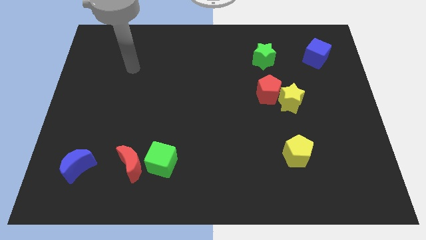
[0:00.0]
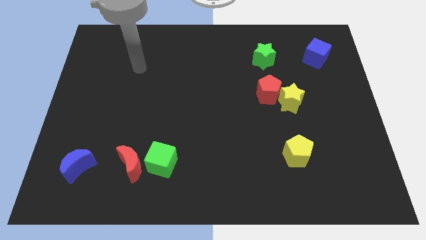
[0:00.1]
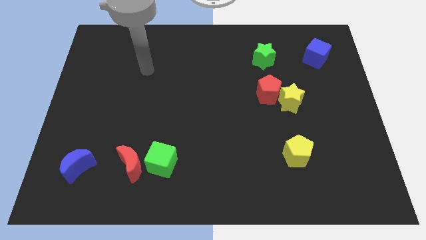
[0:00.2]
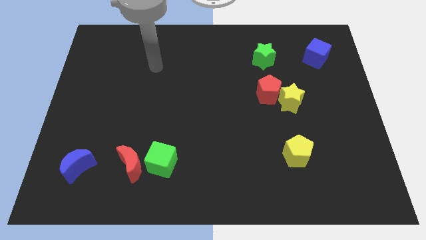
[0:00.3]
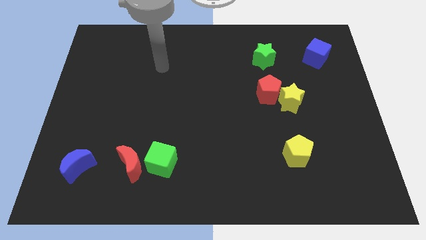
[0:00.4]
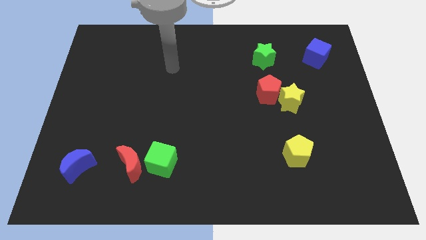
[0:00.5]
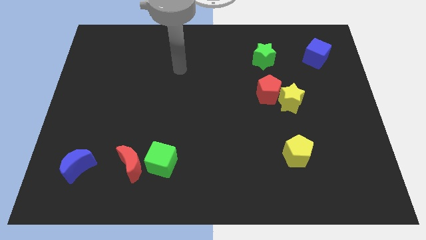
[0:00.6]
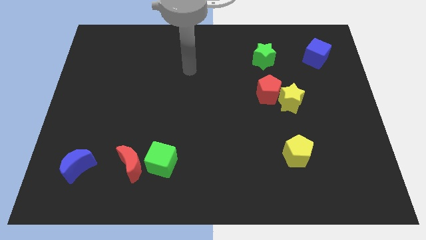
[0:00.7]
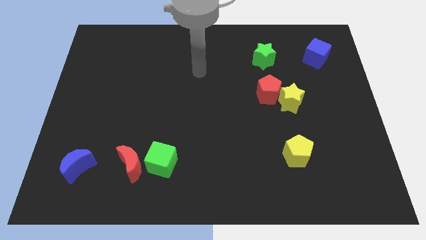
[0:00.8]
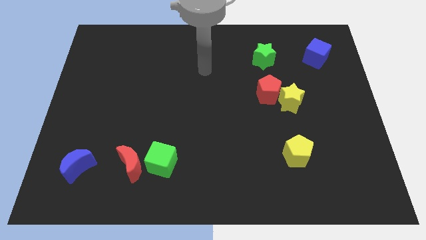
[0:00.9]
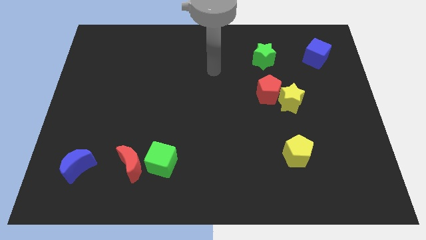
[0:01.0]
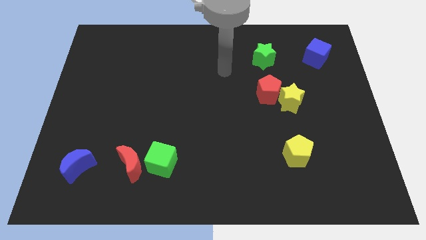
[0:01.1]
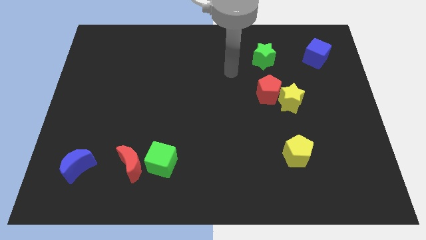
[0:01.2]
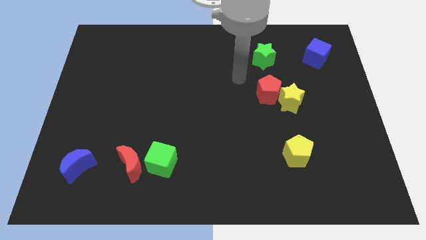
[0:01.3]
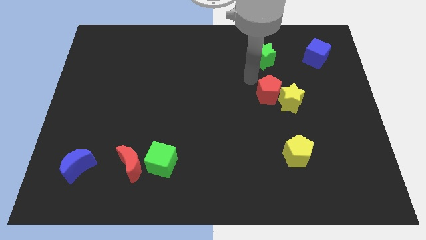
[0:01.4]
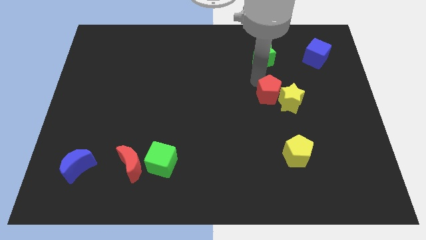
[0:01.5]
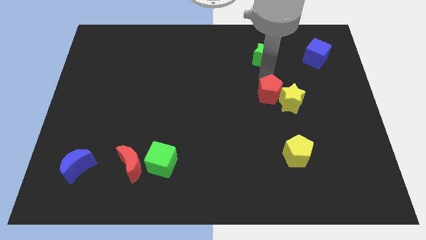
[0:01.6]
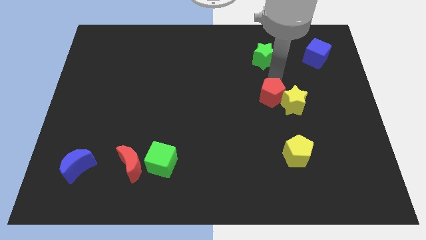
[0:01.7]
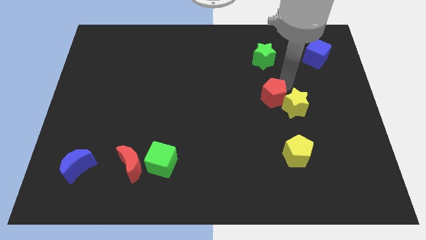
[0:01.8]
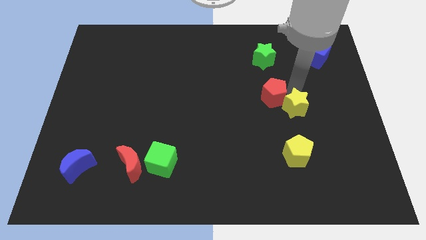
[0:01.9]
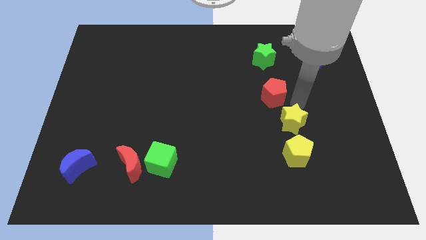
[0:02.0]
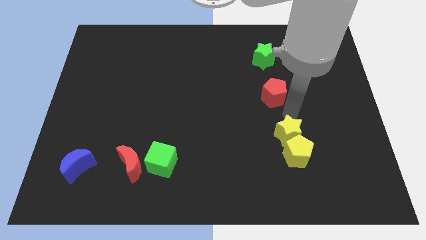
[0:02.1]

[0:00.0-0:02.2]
pull the red pentagon apart from the yellow star

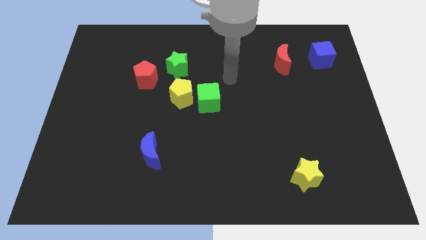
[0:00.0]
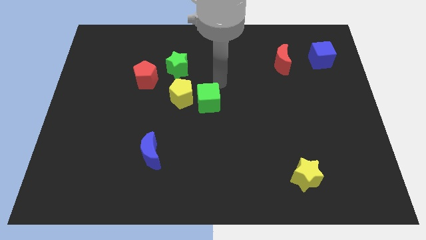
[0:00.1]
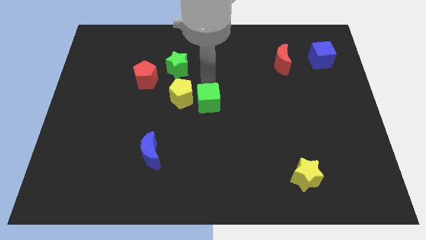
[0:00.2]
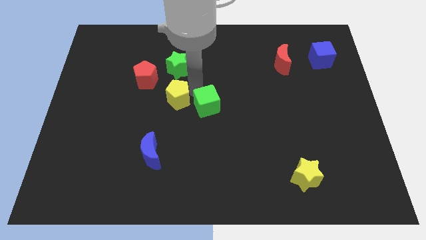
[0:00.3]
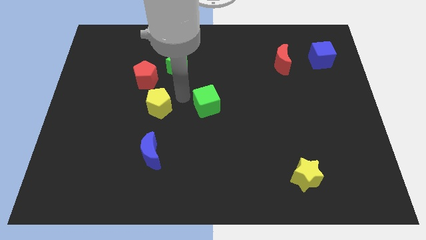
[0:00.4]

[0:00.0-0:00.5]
move the green cube away from the yellow pentagon

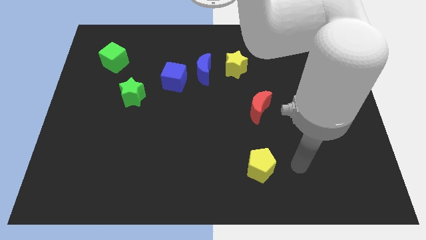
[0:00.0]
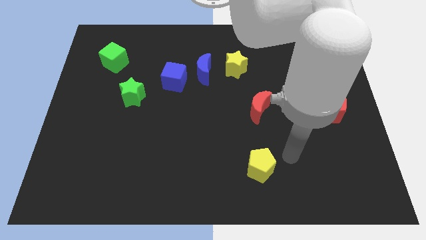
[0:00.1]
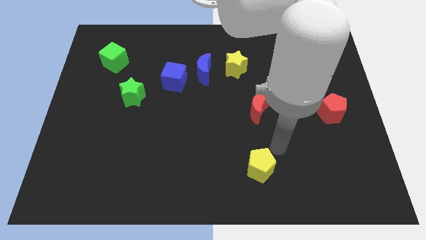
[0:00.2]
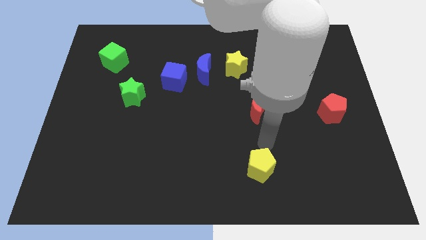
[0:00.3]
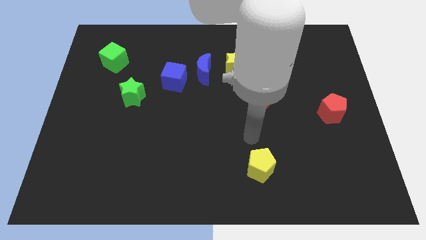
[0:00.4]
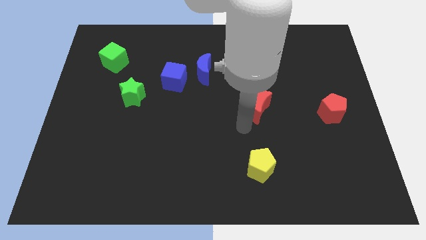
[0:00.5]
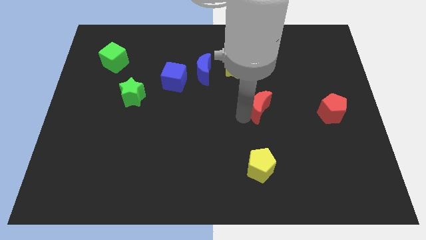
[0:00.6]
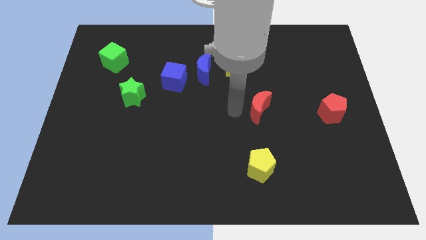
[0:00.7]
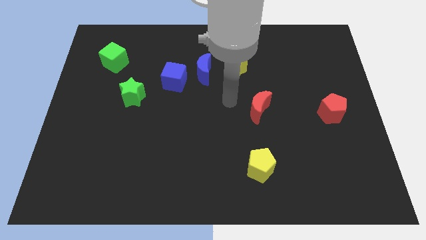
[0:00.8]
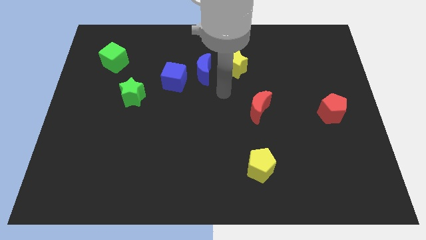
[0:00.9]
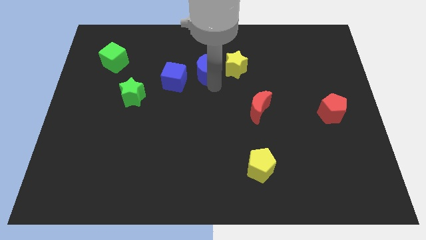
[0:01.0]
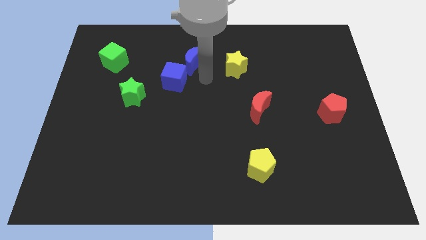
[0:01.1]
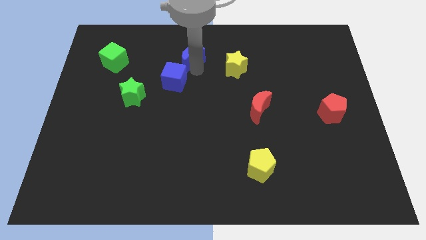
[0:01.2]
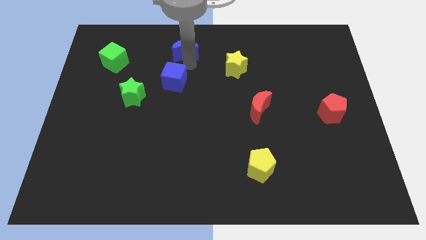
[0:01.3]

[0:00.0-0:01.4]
move the blue cube away from the blue moon

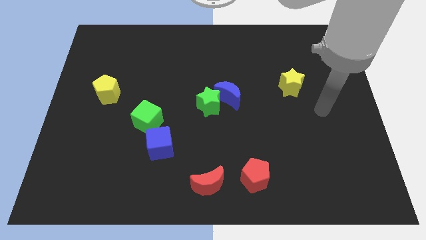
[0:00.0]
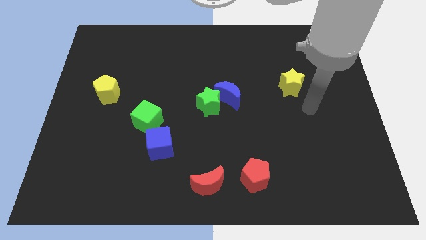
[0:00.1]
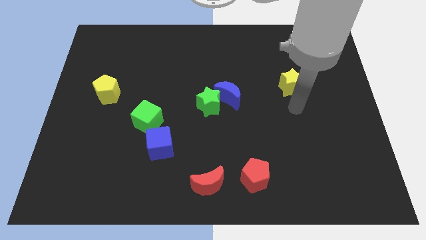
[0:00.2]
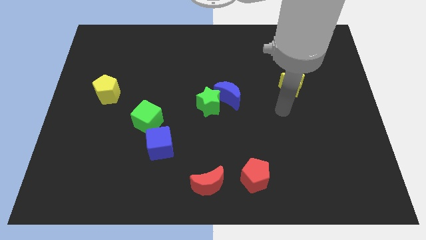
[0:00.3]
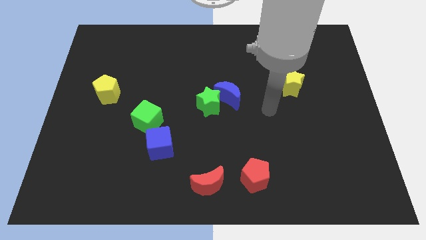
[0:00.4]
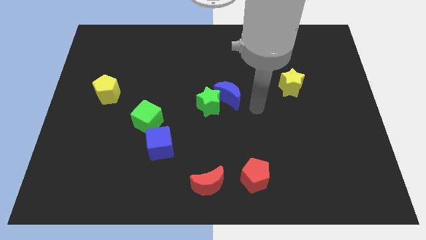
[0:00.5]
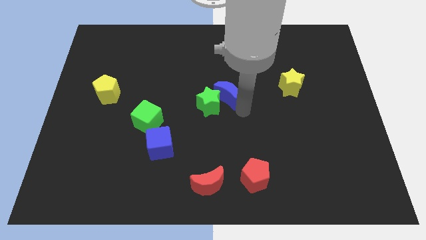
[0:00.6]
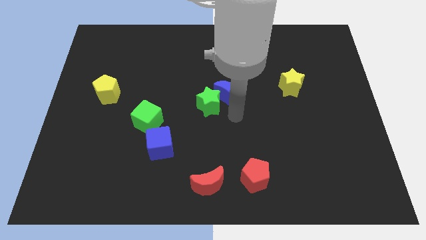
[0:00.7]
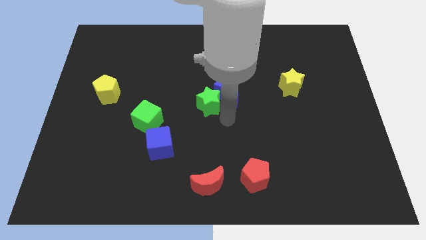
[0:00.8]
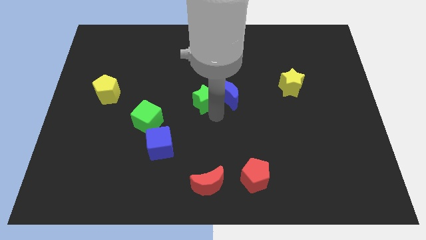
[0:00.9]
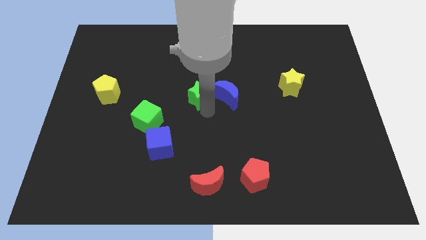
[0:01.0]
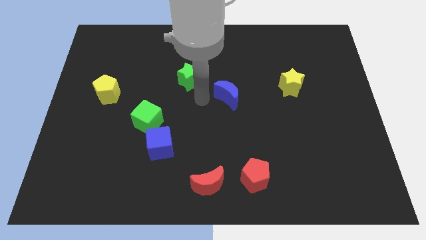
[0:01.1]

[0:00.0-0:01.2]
separate the blue moon from the green star

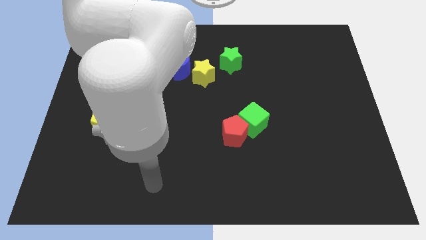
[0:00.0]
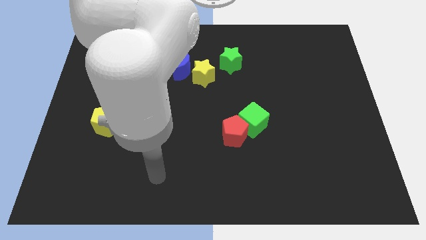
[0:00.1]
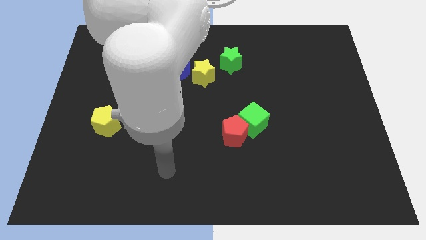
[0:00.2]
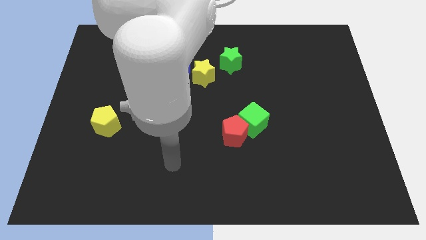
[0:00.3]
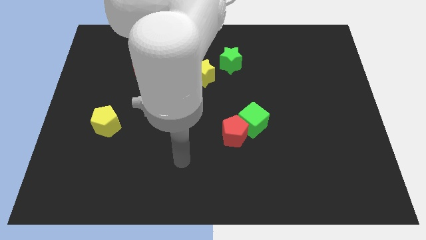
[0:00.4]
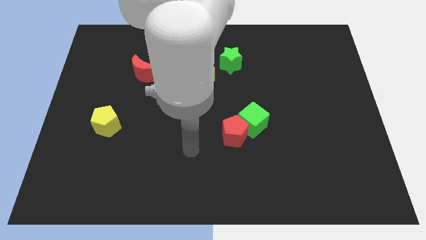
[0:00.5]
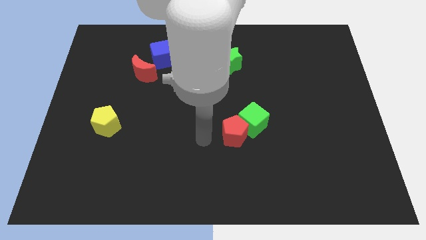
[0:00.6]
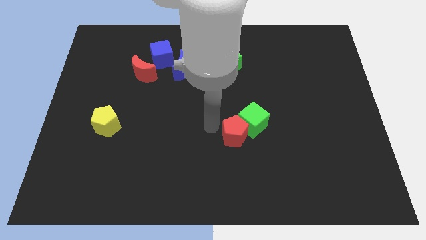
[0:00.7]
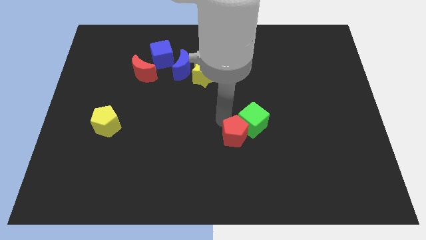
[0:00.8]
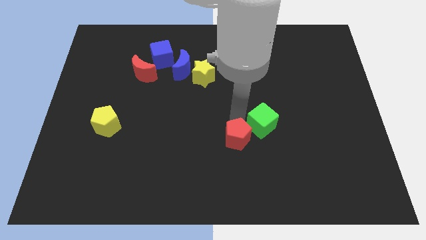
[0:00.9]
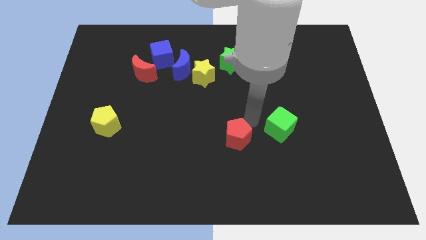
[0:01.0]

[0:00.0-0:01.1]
separate the red pentagon from the green cube

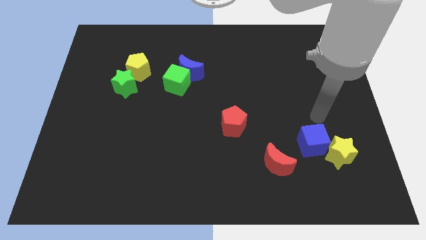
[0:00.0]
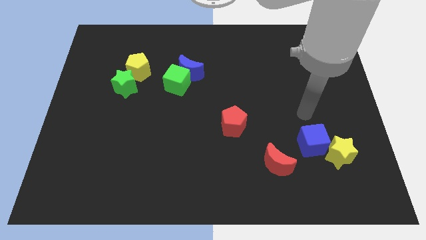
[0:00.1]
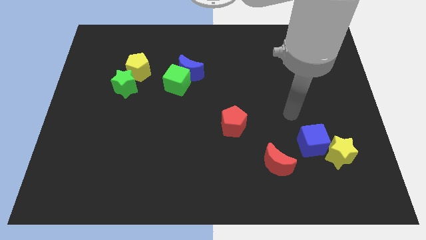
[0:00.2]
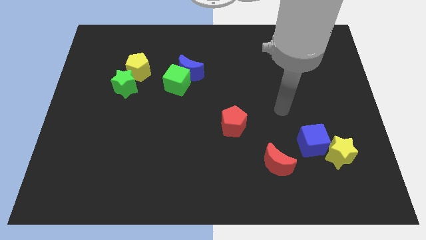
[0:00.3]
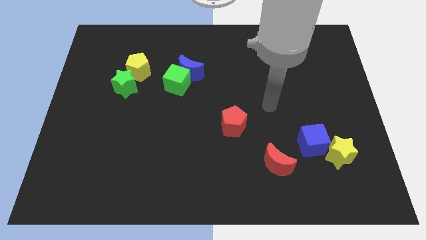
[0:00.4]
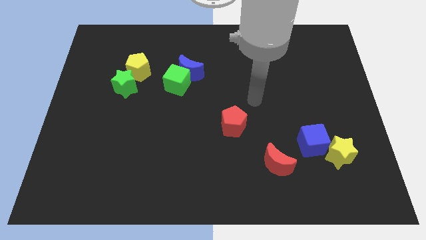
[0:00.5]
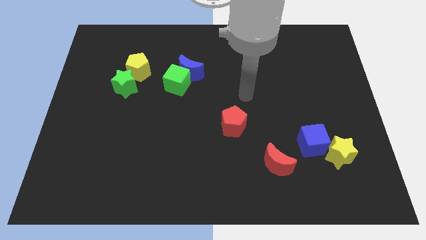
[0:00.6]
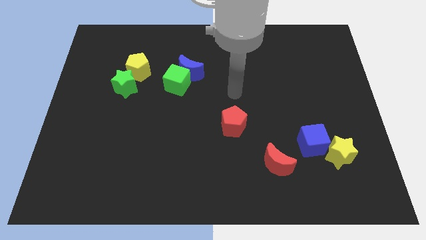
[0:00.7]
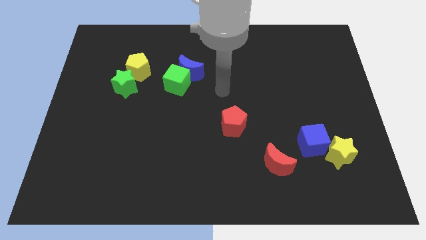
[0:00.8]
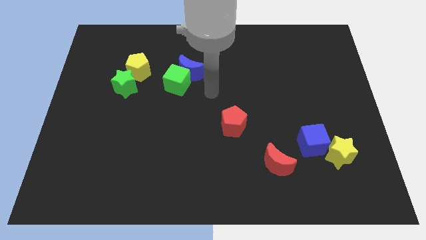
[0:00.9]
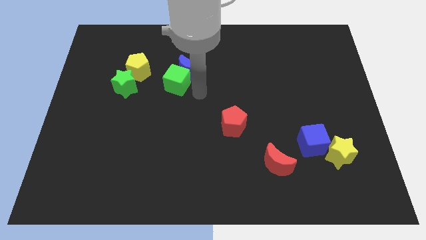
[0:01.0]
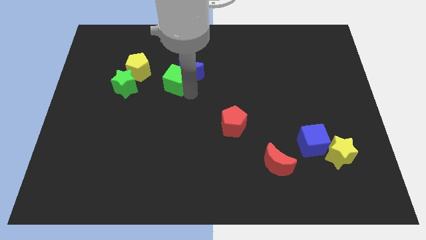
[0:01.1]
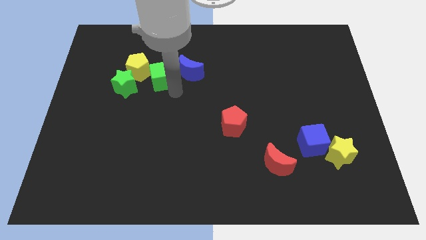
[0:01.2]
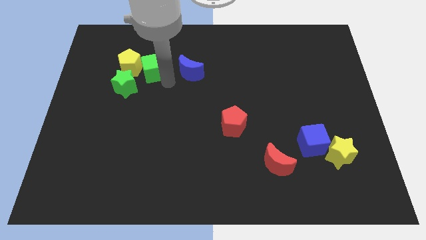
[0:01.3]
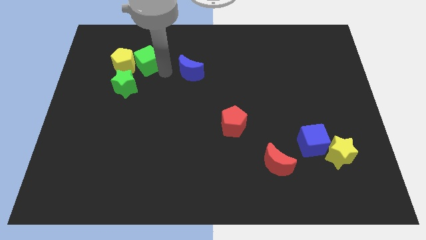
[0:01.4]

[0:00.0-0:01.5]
pull the blue moon apart from the green cube

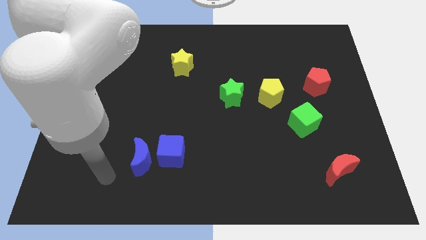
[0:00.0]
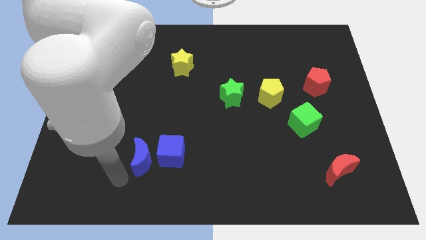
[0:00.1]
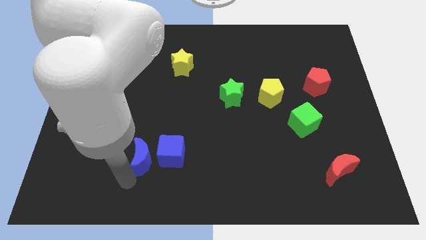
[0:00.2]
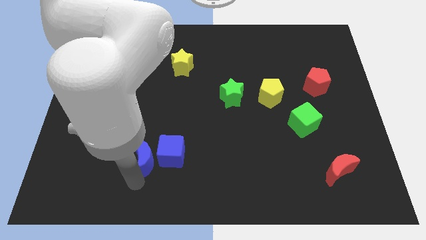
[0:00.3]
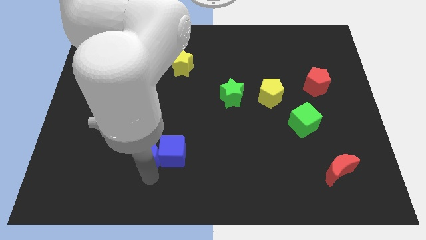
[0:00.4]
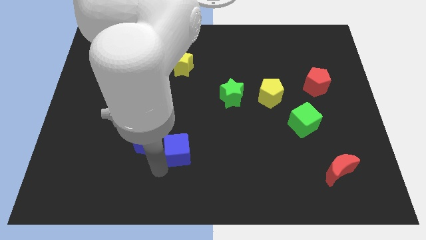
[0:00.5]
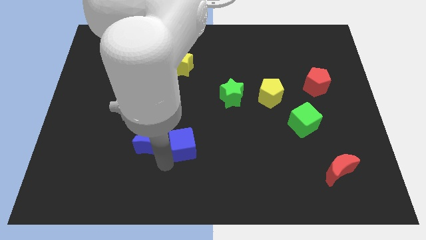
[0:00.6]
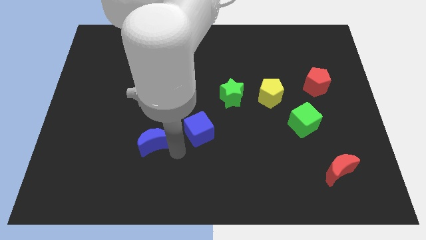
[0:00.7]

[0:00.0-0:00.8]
pull the blue moon apart from the blue cube

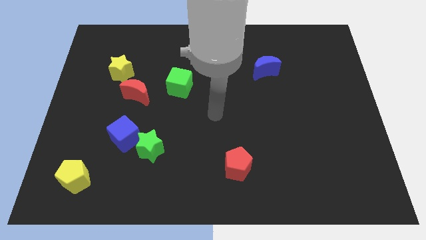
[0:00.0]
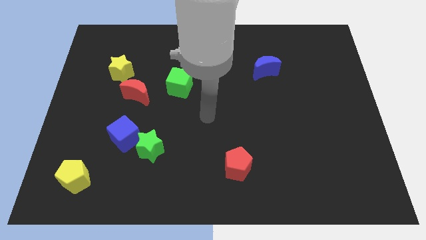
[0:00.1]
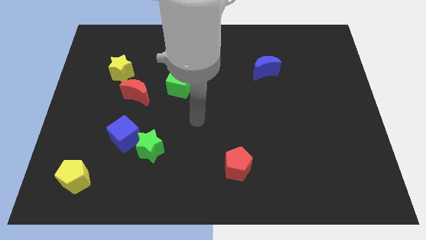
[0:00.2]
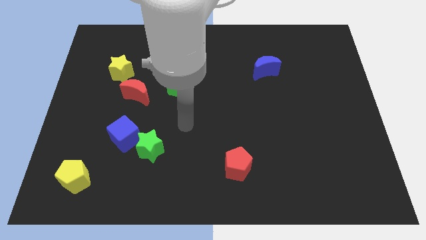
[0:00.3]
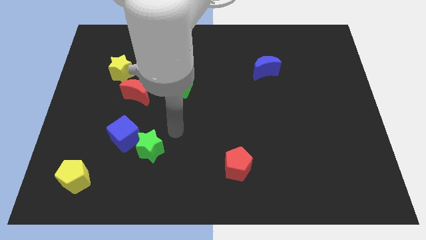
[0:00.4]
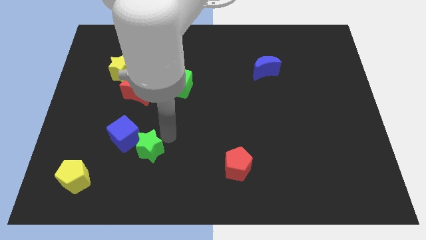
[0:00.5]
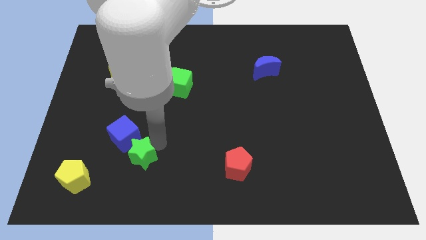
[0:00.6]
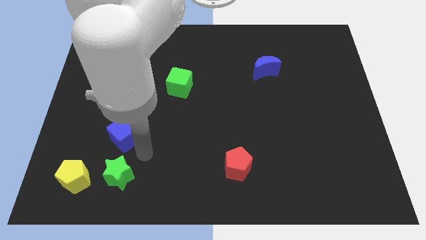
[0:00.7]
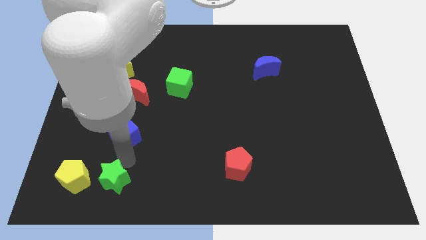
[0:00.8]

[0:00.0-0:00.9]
move the blue cube away from the green star
